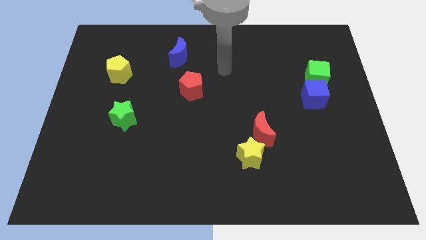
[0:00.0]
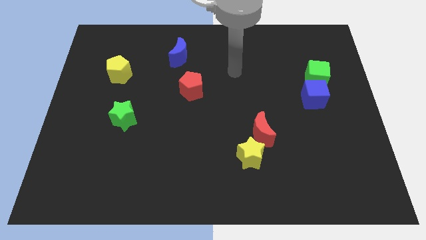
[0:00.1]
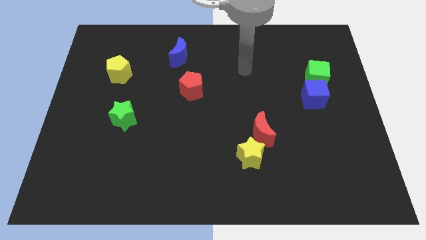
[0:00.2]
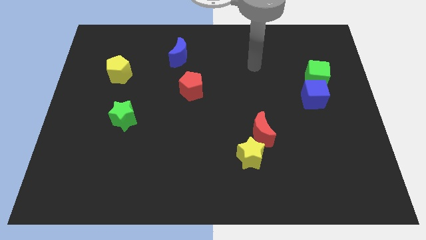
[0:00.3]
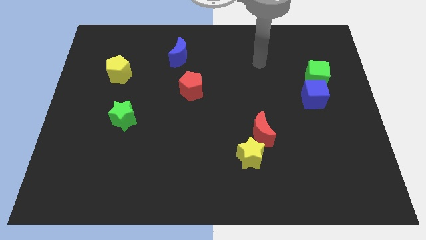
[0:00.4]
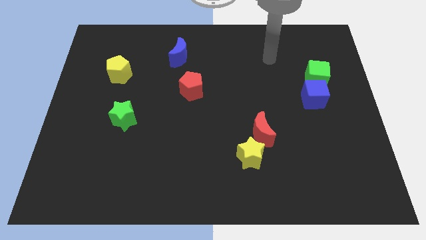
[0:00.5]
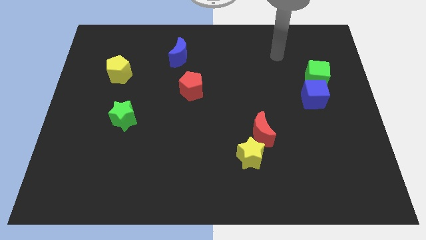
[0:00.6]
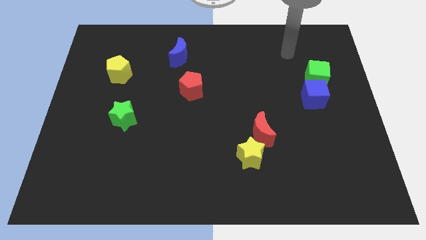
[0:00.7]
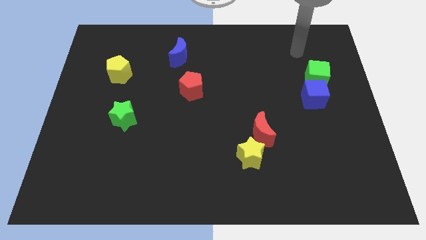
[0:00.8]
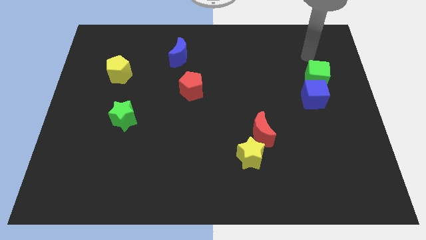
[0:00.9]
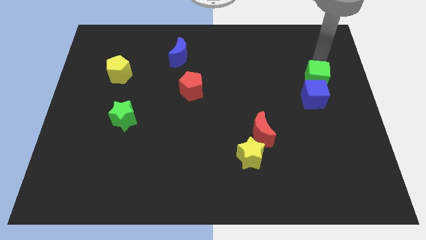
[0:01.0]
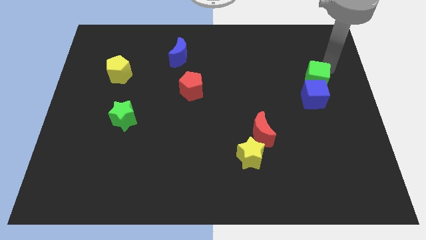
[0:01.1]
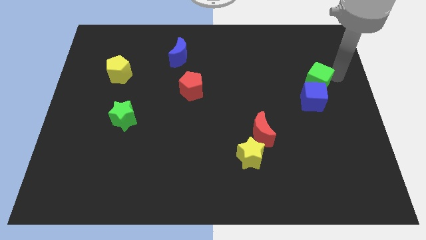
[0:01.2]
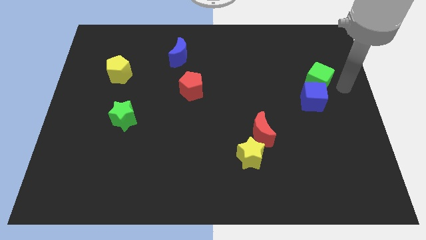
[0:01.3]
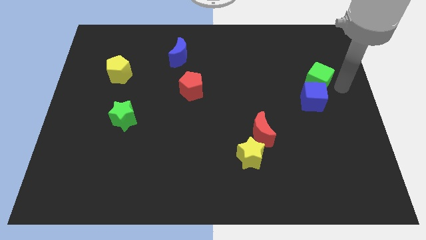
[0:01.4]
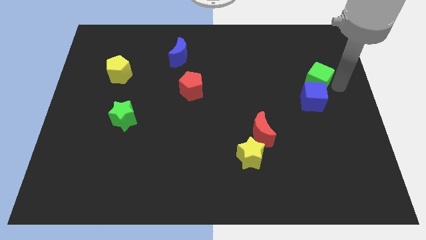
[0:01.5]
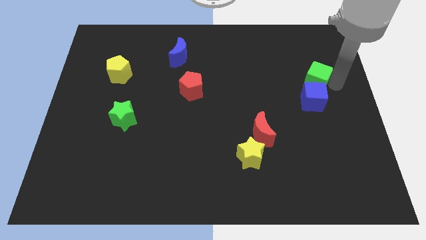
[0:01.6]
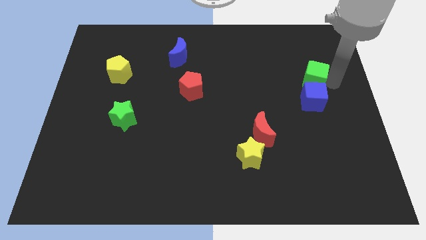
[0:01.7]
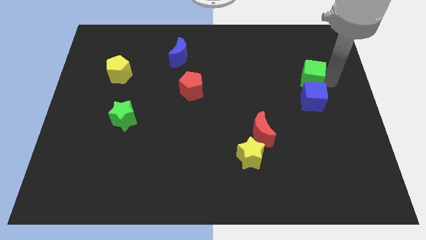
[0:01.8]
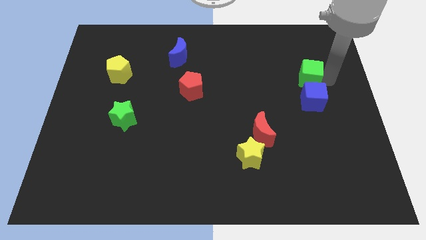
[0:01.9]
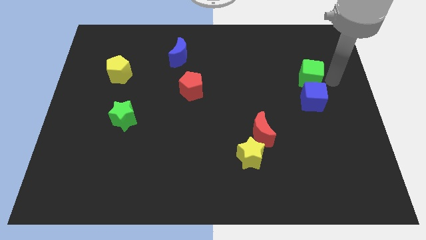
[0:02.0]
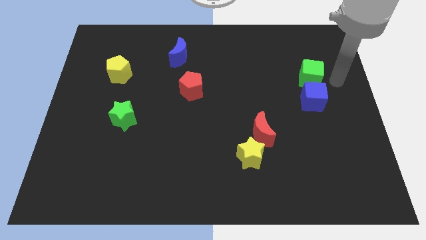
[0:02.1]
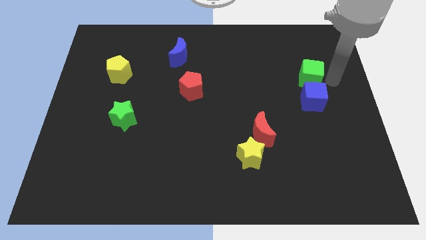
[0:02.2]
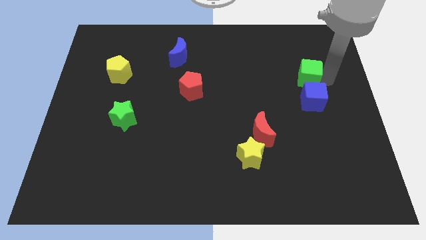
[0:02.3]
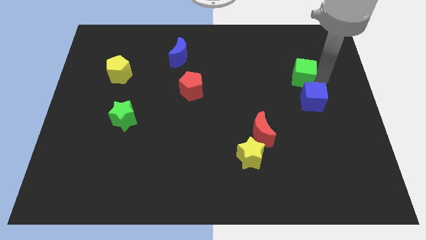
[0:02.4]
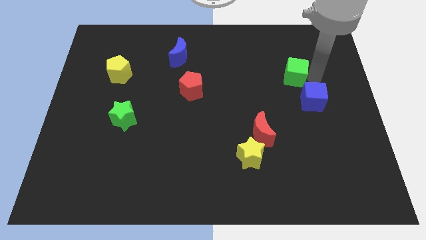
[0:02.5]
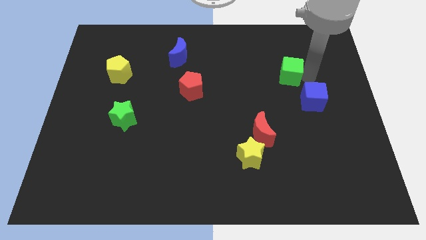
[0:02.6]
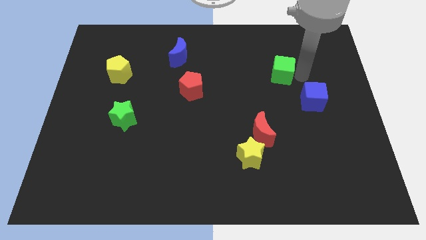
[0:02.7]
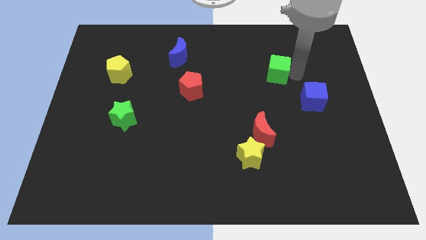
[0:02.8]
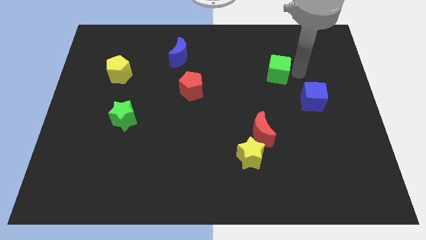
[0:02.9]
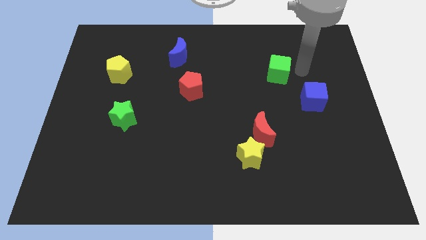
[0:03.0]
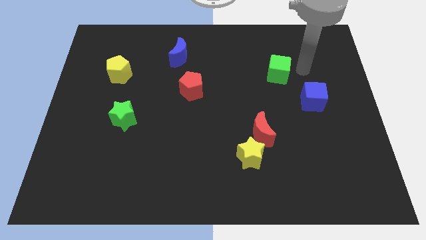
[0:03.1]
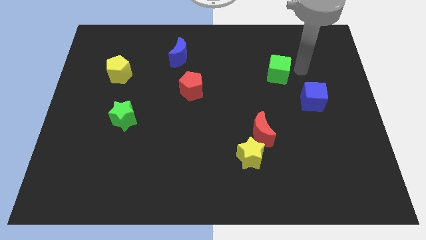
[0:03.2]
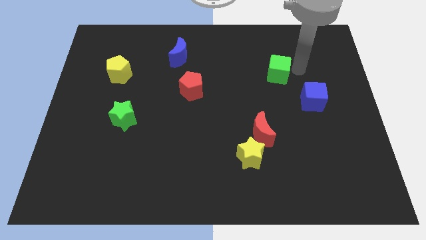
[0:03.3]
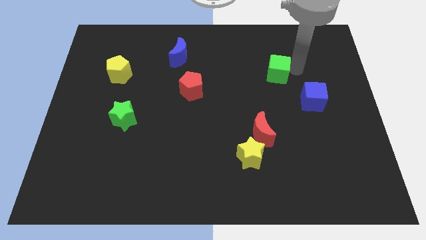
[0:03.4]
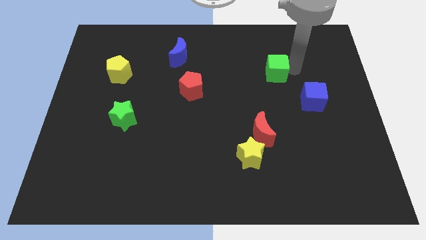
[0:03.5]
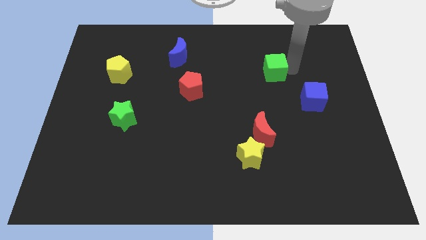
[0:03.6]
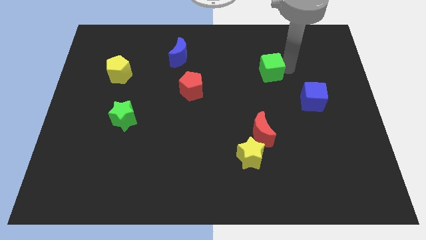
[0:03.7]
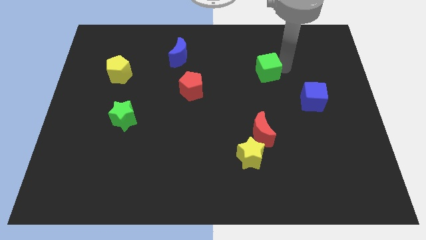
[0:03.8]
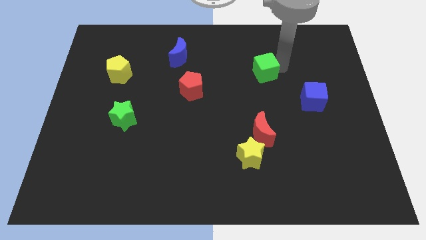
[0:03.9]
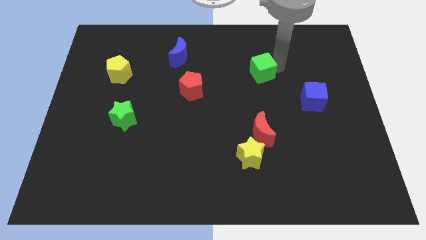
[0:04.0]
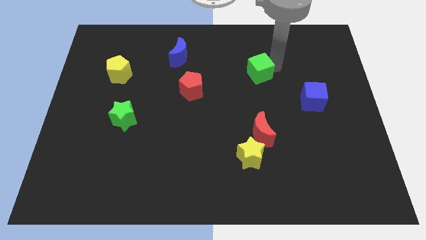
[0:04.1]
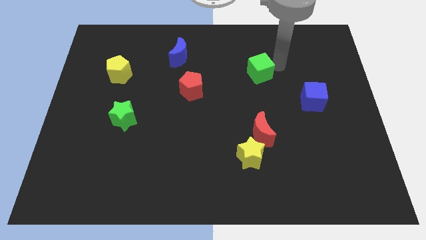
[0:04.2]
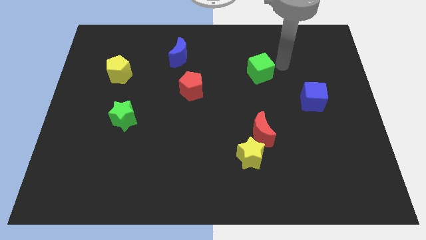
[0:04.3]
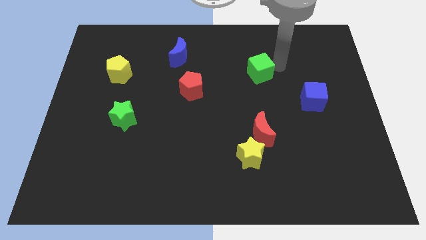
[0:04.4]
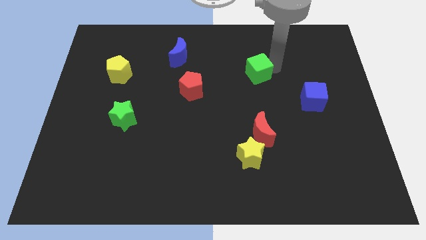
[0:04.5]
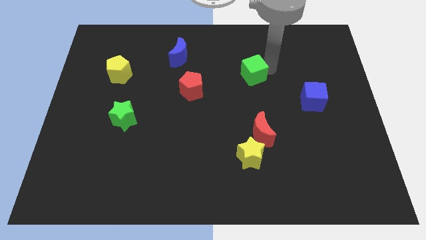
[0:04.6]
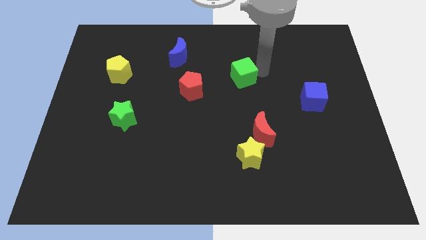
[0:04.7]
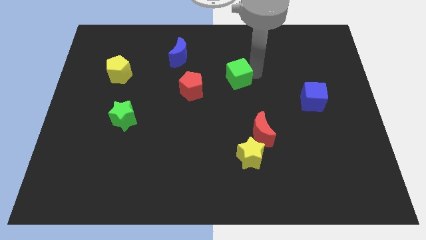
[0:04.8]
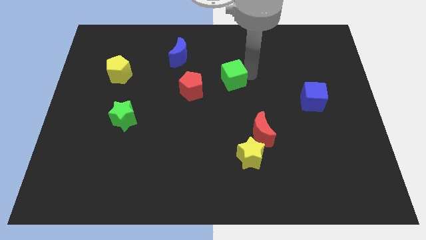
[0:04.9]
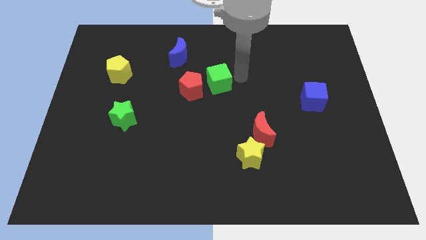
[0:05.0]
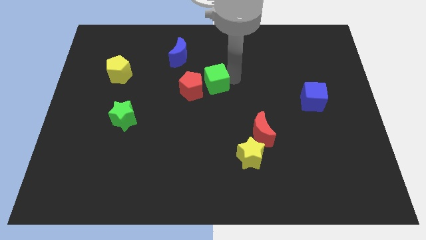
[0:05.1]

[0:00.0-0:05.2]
move the green cube towards the red pentagon

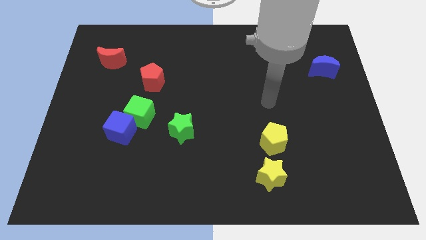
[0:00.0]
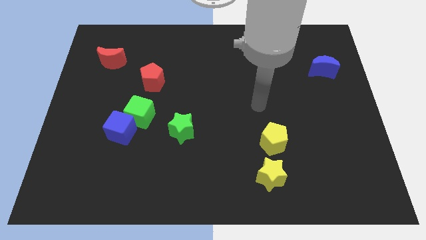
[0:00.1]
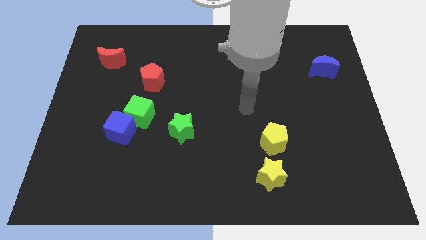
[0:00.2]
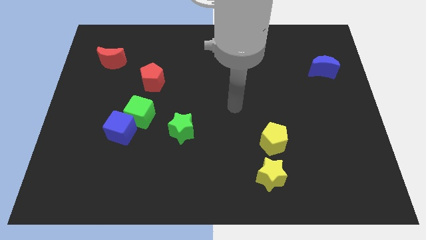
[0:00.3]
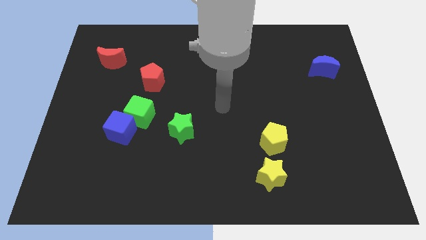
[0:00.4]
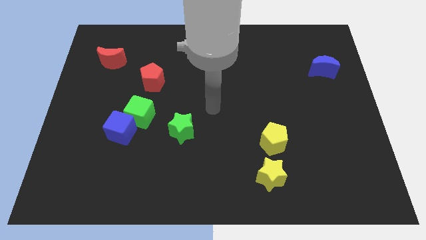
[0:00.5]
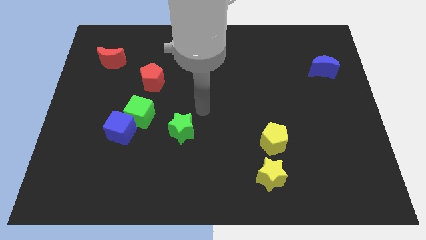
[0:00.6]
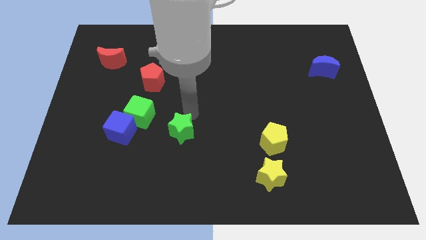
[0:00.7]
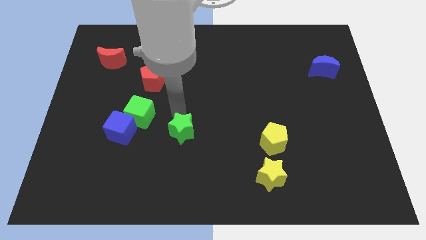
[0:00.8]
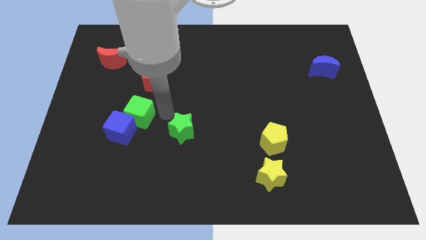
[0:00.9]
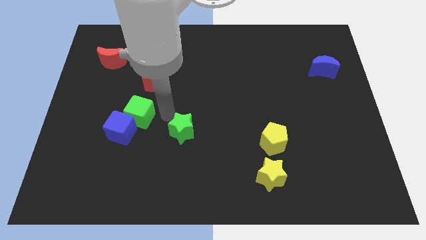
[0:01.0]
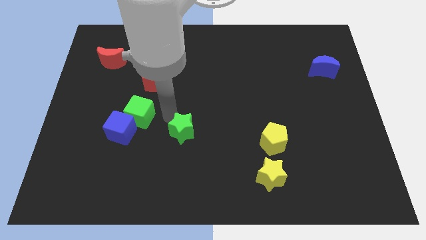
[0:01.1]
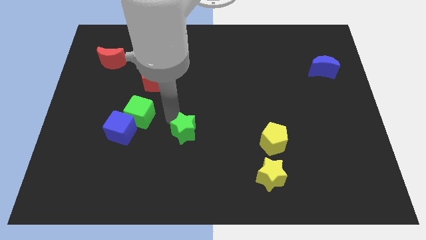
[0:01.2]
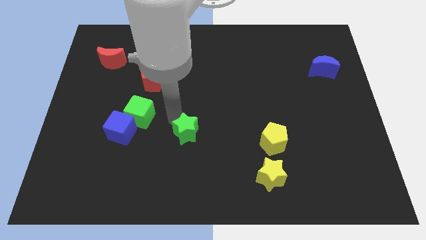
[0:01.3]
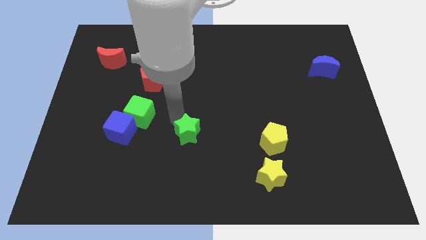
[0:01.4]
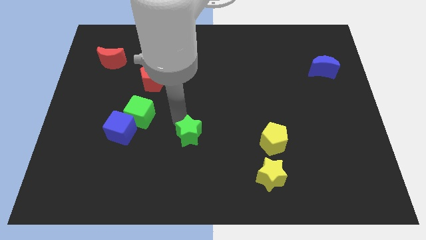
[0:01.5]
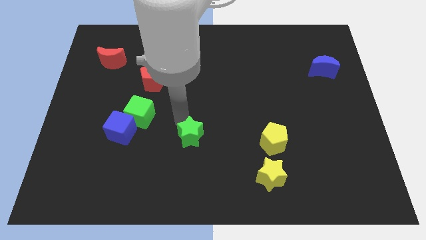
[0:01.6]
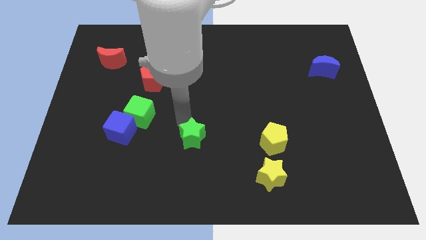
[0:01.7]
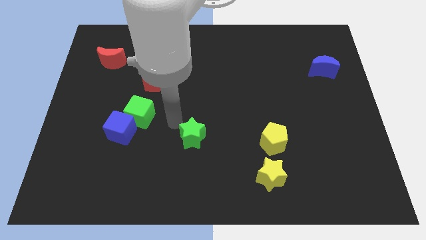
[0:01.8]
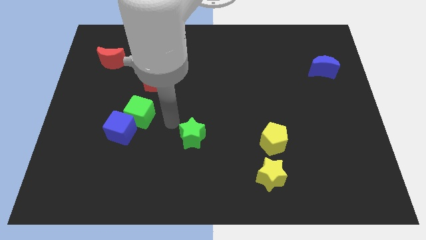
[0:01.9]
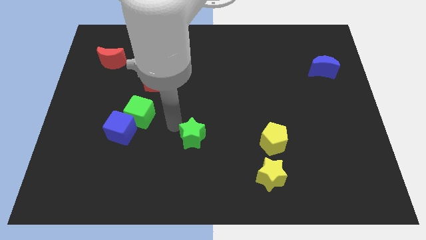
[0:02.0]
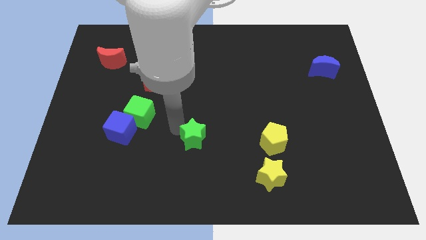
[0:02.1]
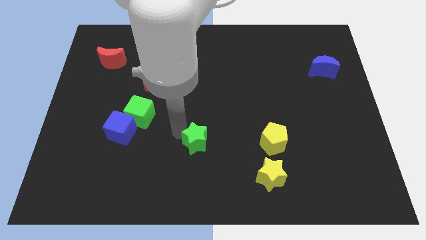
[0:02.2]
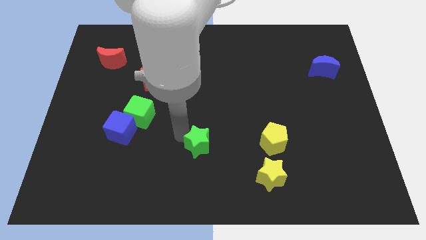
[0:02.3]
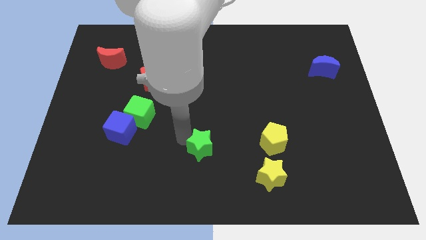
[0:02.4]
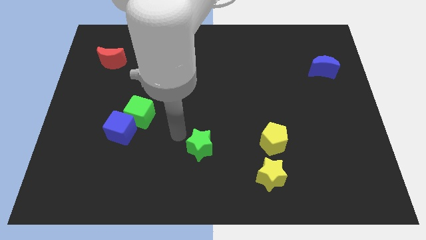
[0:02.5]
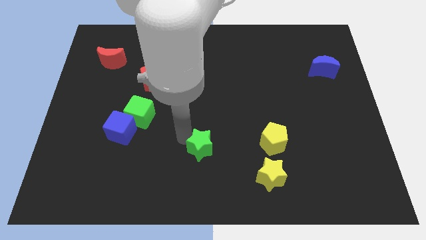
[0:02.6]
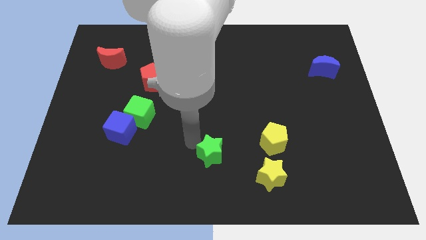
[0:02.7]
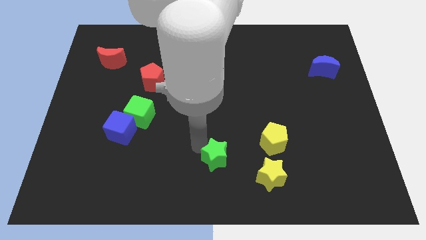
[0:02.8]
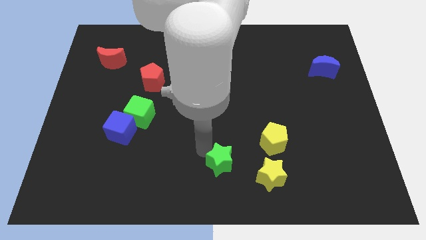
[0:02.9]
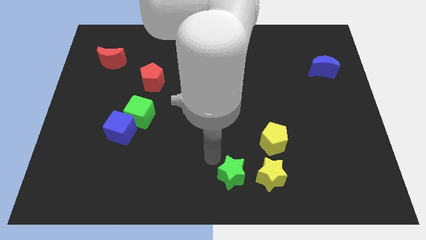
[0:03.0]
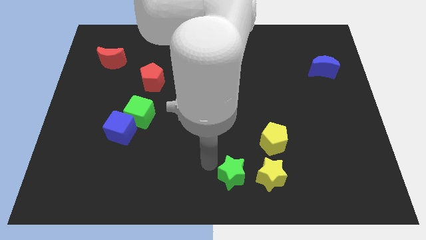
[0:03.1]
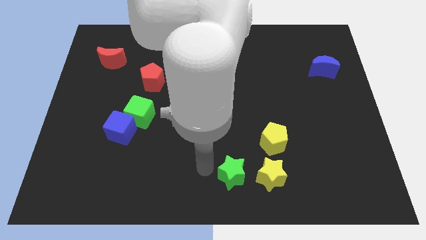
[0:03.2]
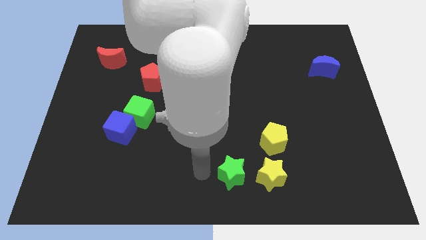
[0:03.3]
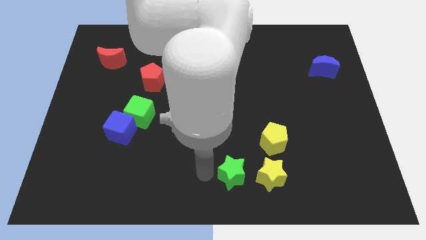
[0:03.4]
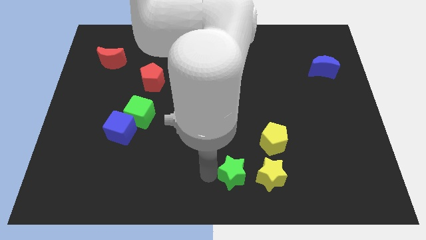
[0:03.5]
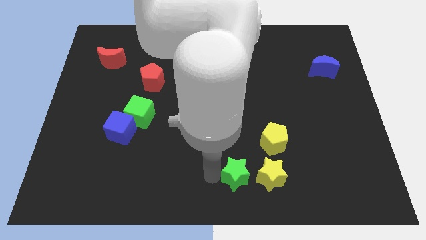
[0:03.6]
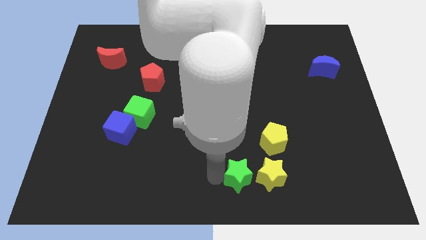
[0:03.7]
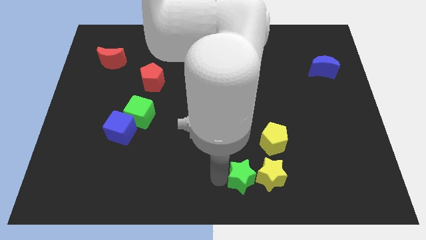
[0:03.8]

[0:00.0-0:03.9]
push the green star to the yellow star
